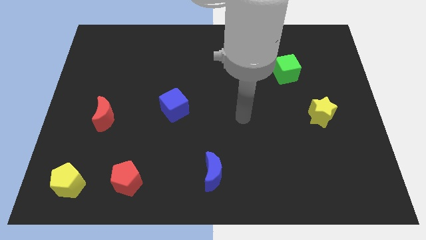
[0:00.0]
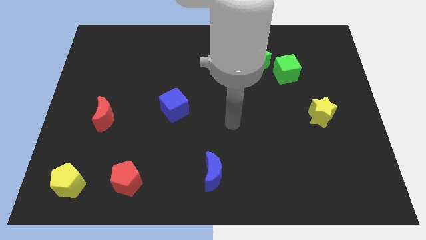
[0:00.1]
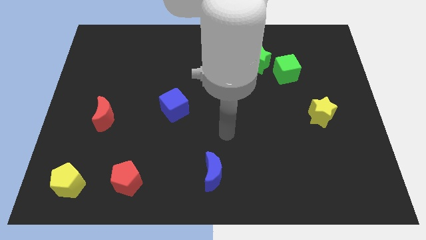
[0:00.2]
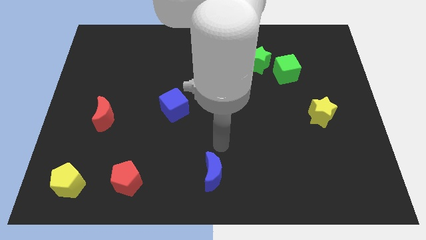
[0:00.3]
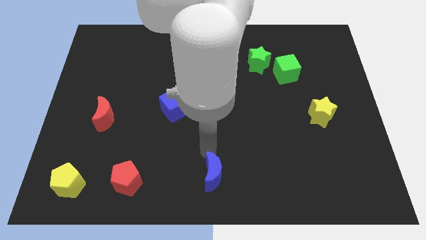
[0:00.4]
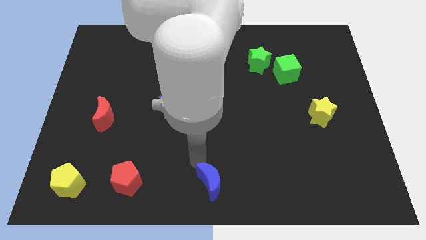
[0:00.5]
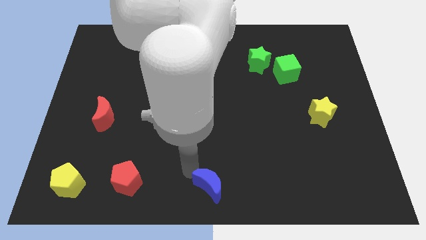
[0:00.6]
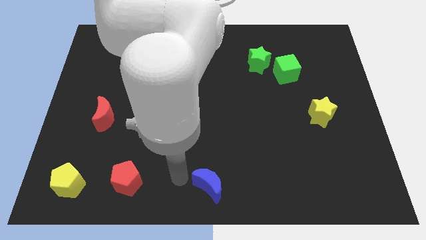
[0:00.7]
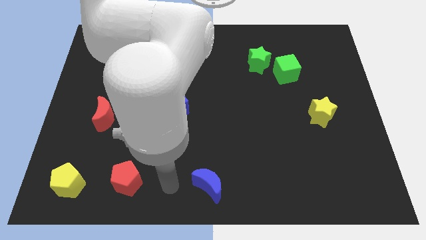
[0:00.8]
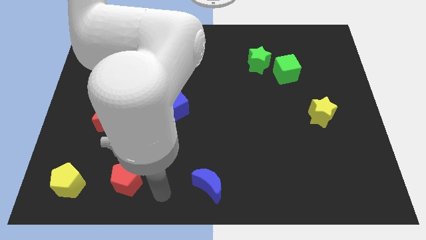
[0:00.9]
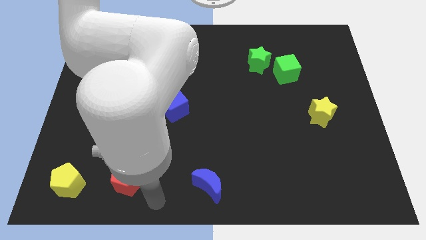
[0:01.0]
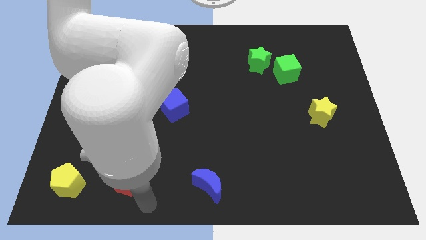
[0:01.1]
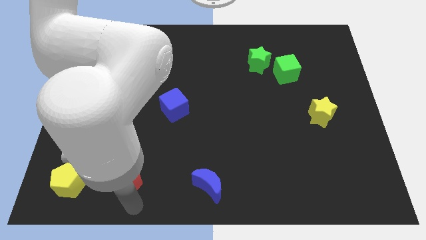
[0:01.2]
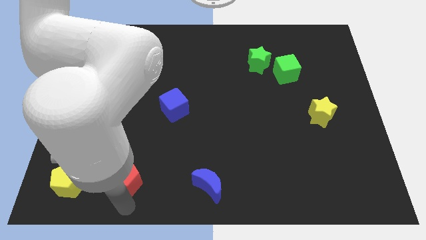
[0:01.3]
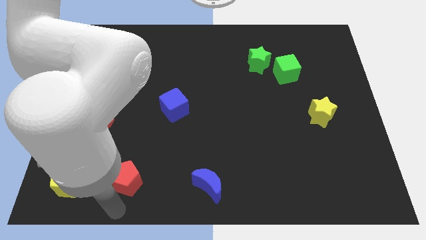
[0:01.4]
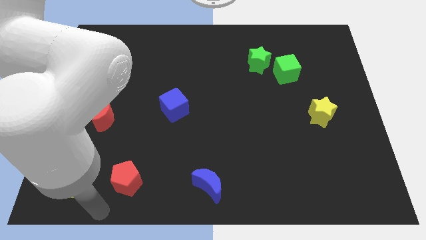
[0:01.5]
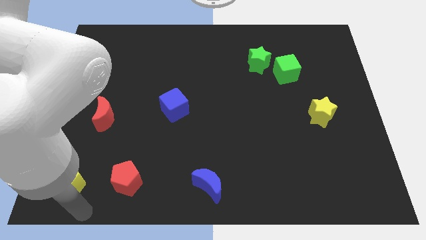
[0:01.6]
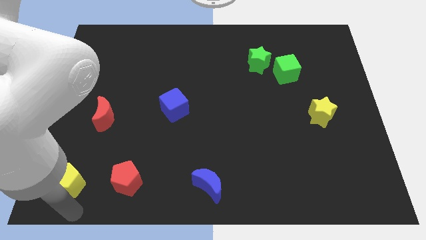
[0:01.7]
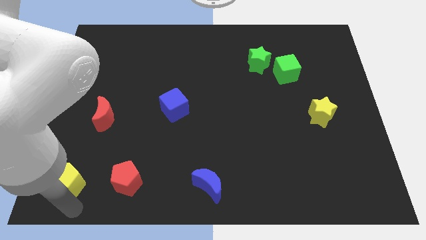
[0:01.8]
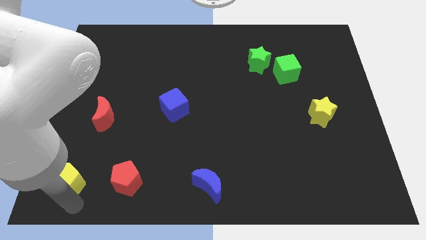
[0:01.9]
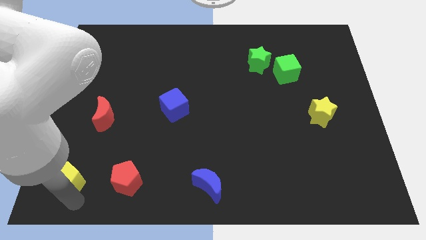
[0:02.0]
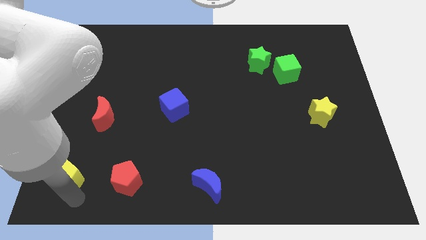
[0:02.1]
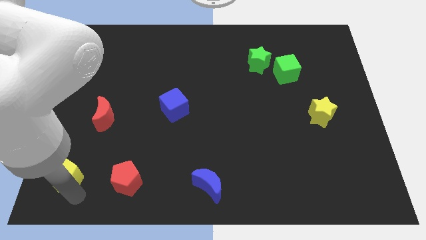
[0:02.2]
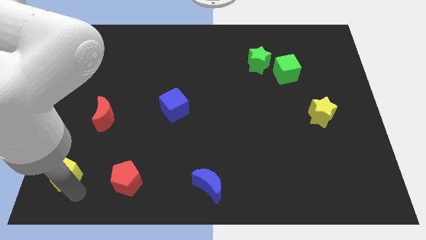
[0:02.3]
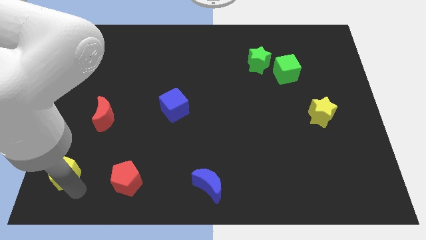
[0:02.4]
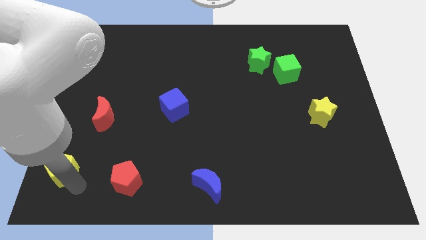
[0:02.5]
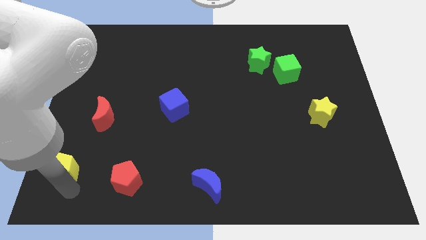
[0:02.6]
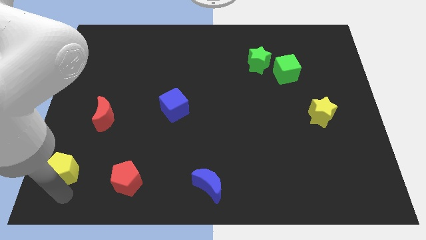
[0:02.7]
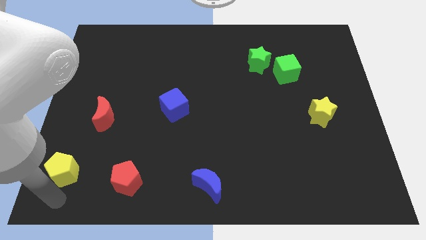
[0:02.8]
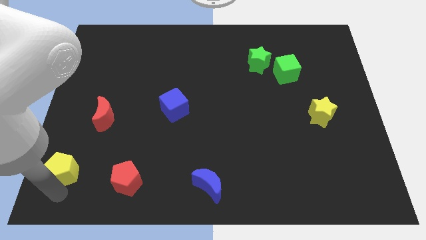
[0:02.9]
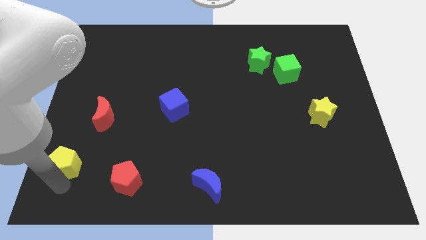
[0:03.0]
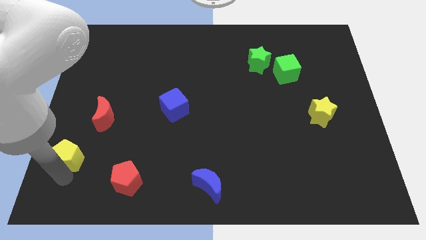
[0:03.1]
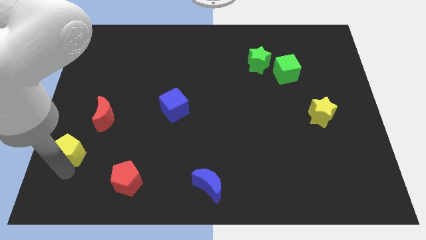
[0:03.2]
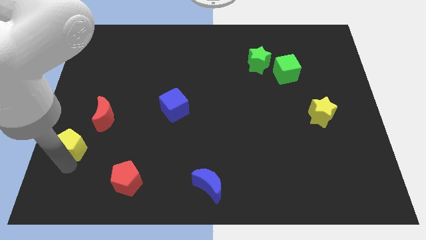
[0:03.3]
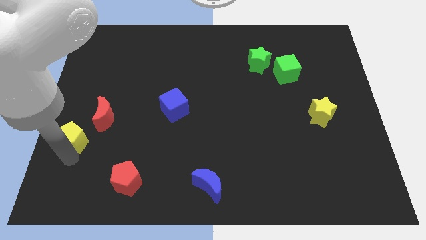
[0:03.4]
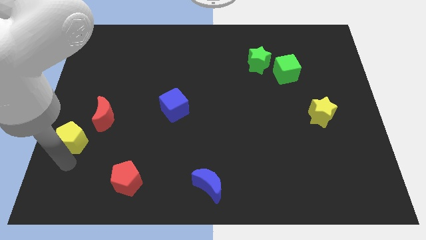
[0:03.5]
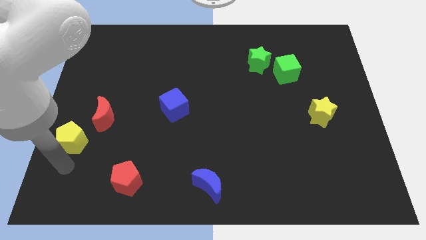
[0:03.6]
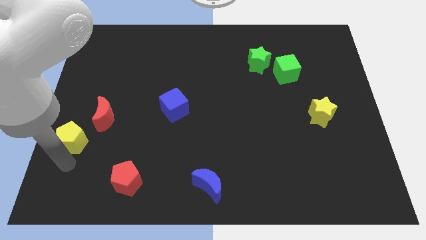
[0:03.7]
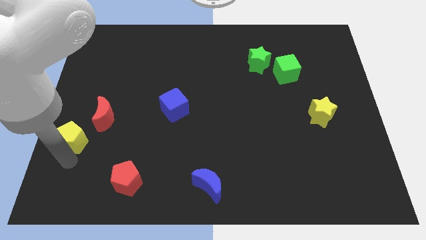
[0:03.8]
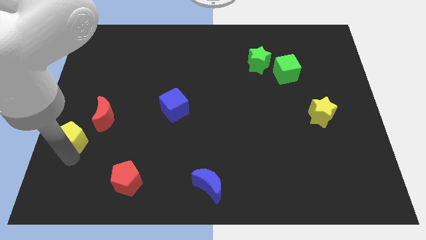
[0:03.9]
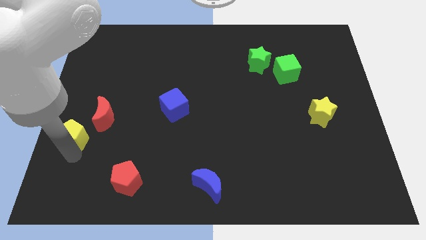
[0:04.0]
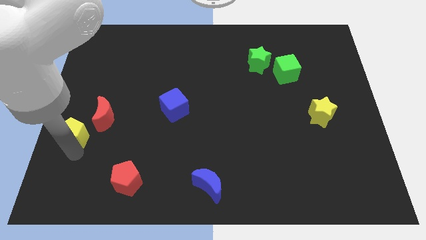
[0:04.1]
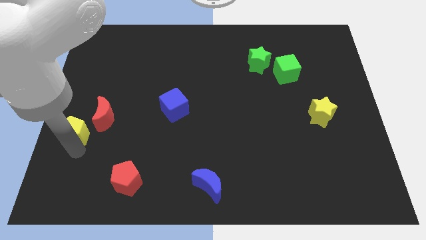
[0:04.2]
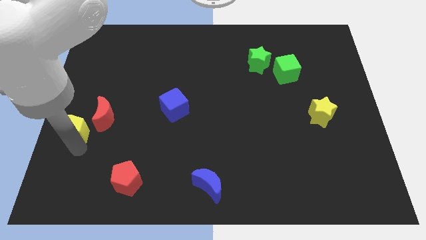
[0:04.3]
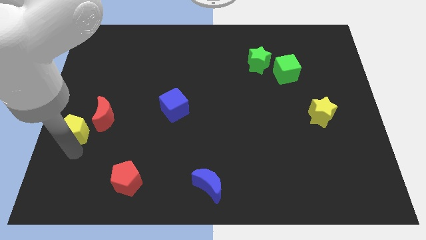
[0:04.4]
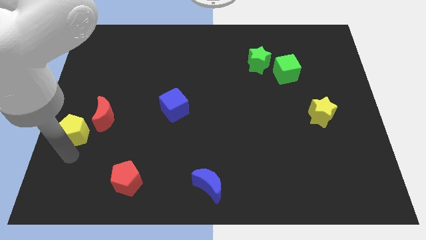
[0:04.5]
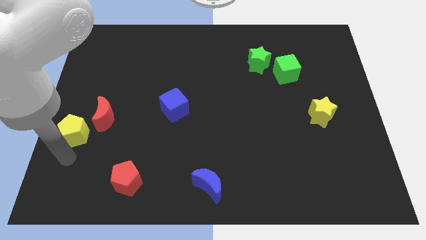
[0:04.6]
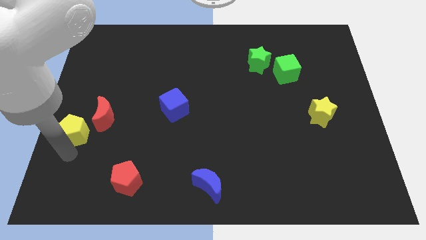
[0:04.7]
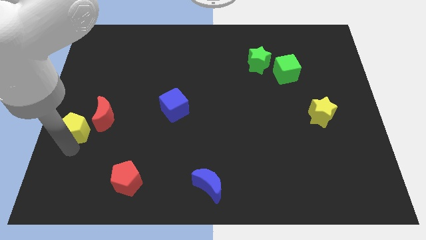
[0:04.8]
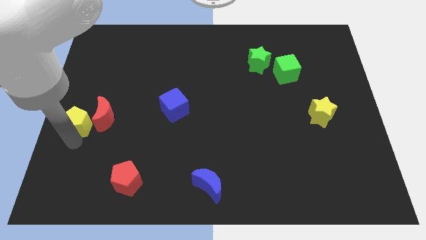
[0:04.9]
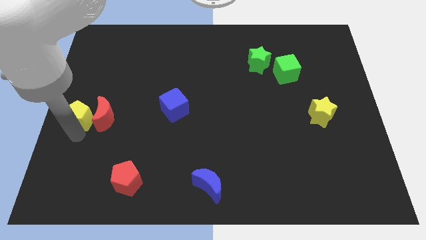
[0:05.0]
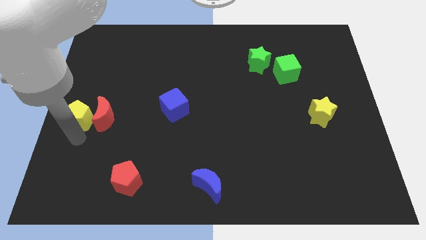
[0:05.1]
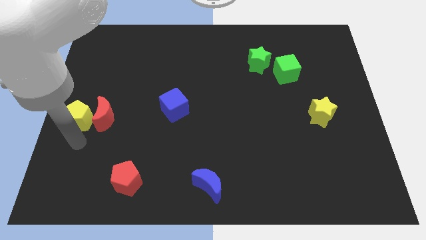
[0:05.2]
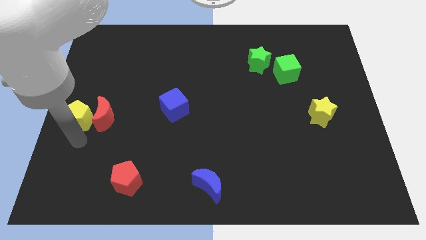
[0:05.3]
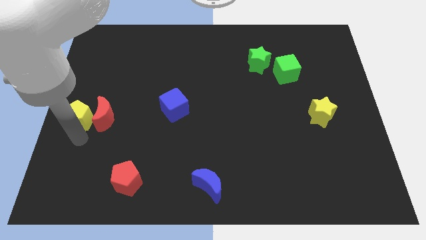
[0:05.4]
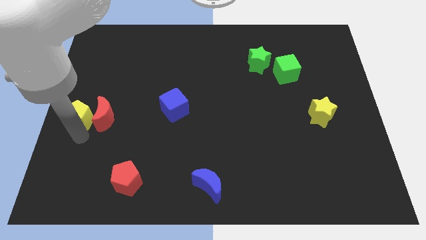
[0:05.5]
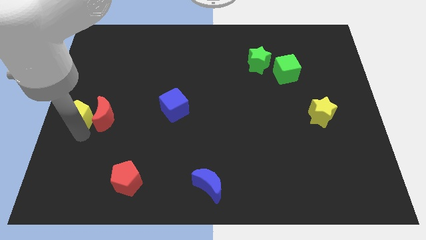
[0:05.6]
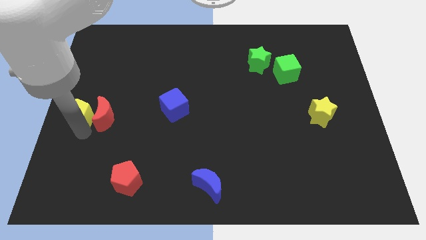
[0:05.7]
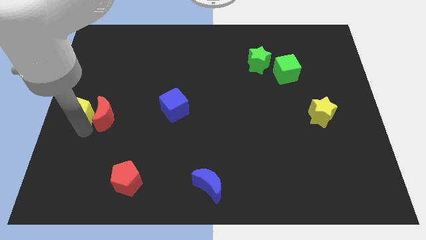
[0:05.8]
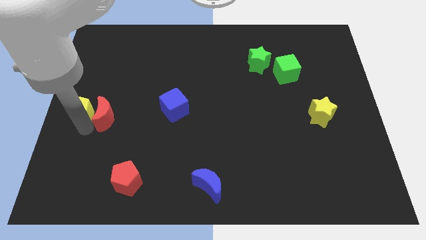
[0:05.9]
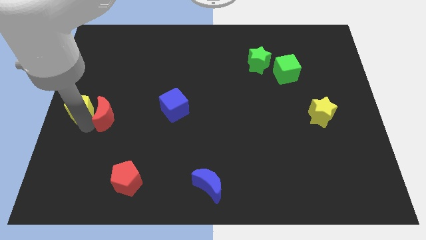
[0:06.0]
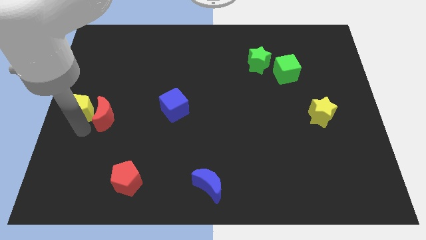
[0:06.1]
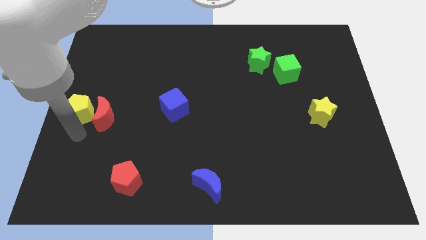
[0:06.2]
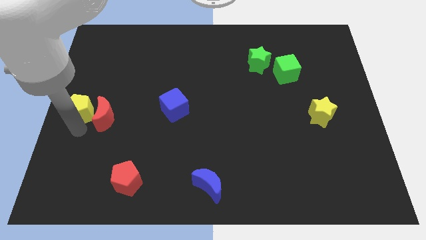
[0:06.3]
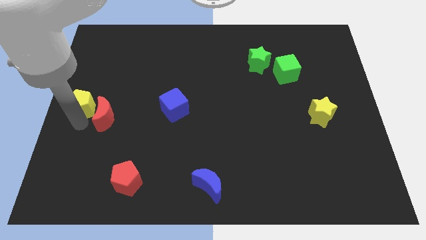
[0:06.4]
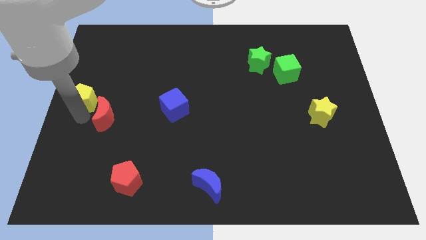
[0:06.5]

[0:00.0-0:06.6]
slide the yellow pentagon upwards

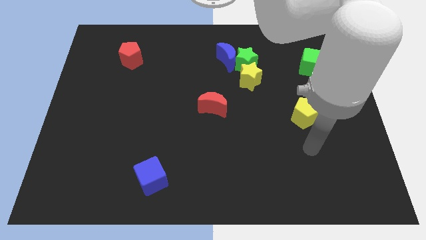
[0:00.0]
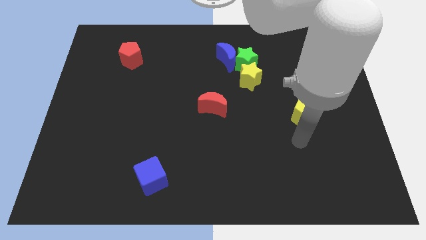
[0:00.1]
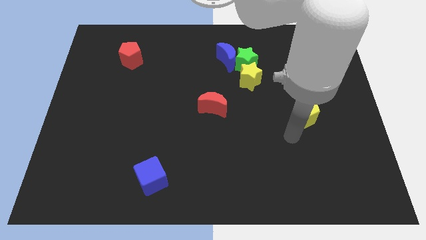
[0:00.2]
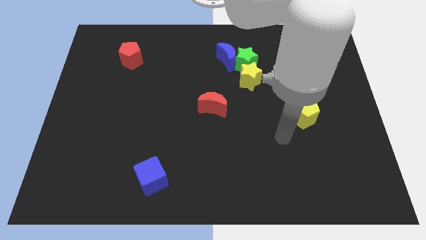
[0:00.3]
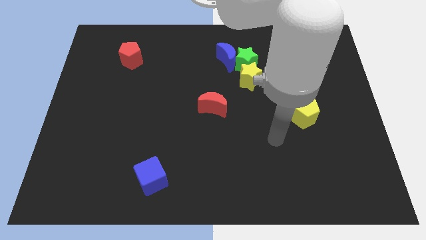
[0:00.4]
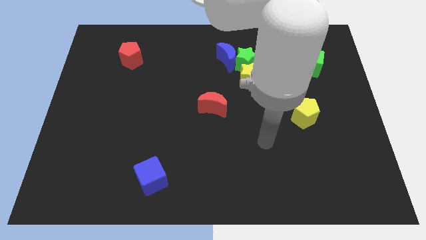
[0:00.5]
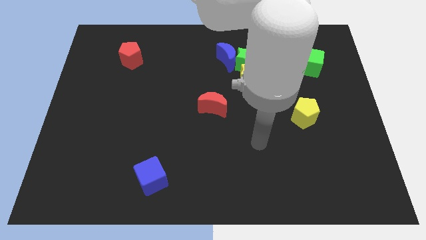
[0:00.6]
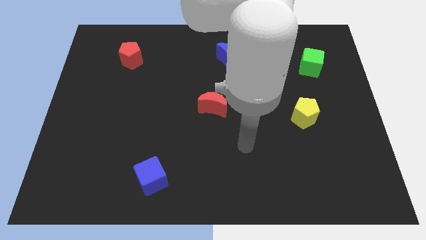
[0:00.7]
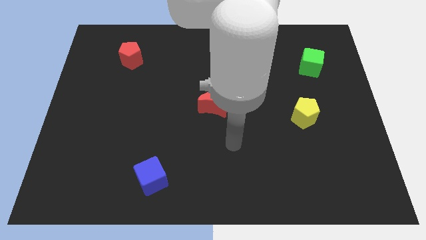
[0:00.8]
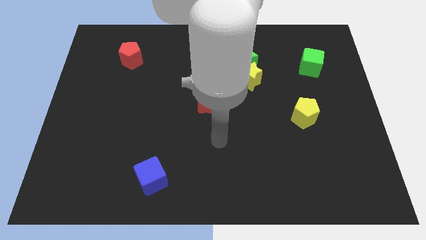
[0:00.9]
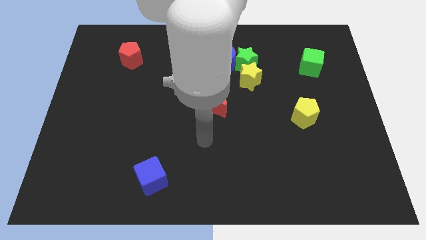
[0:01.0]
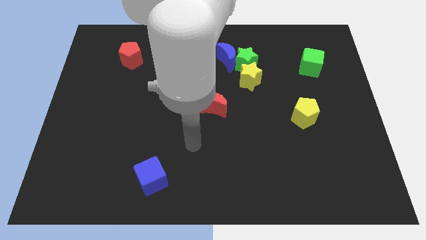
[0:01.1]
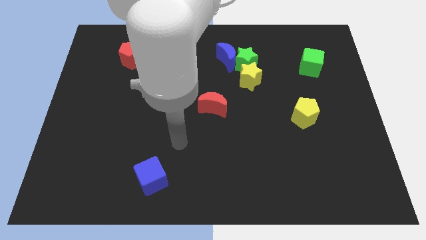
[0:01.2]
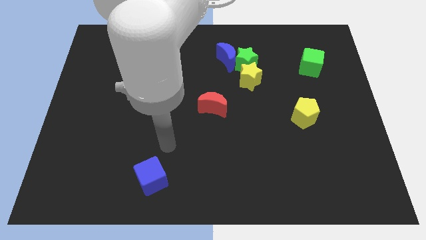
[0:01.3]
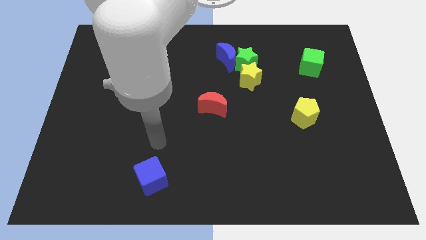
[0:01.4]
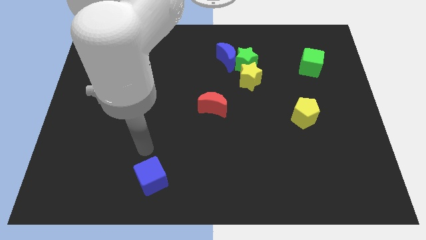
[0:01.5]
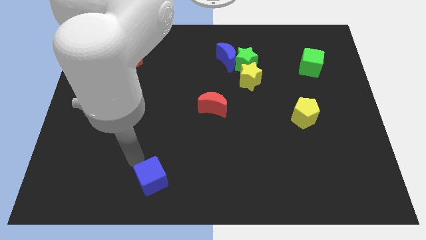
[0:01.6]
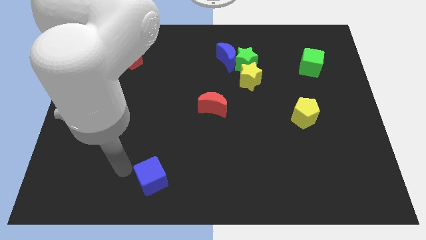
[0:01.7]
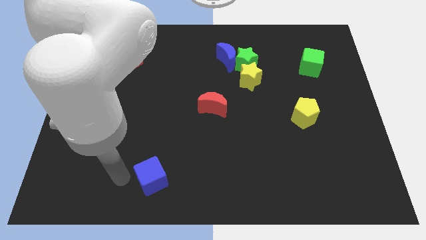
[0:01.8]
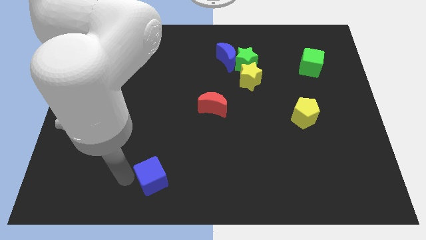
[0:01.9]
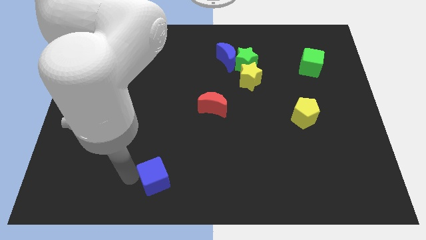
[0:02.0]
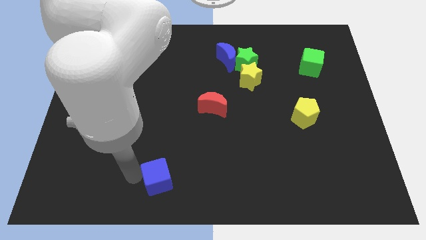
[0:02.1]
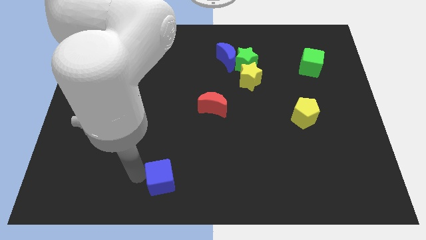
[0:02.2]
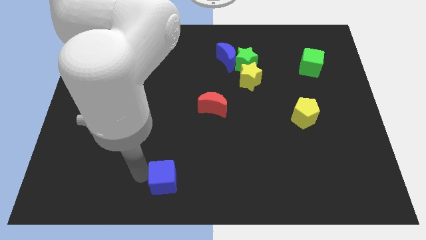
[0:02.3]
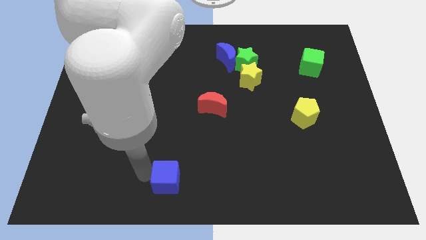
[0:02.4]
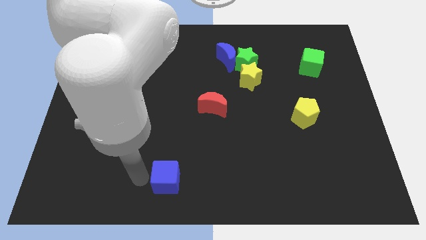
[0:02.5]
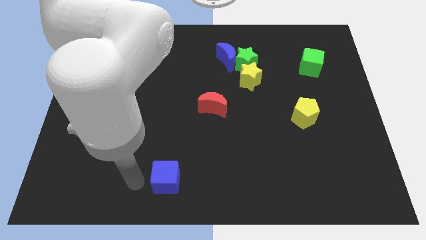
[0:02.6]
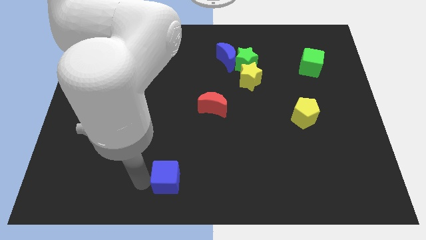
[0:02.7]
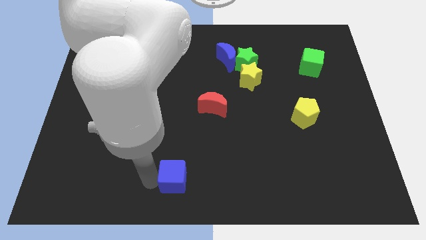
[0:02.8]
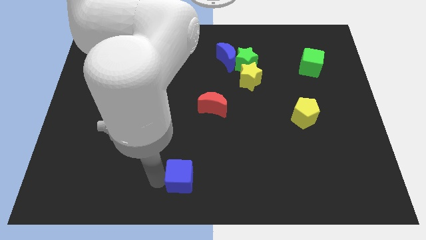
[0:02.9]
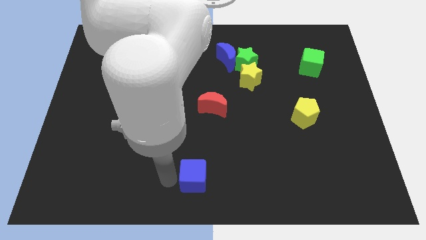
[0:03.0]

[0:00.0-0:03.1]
push the blue cube a bit to the right
